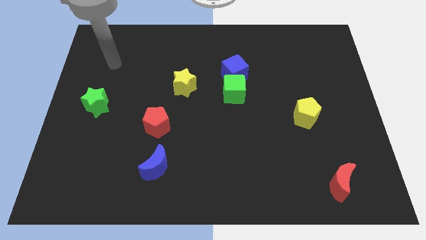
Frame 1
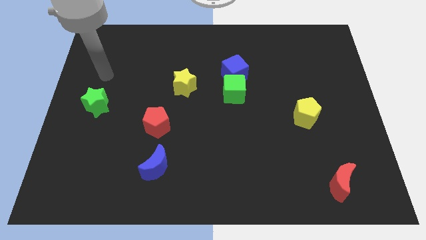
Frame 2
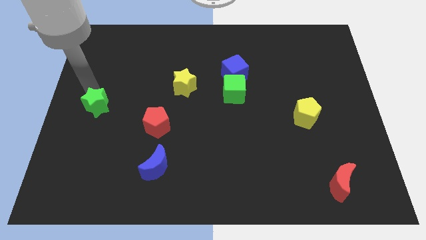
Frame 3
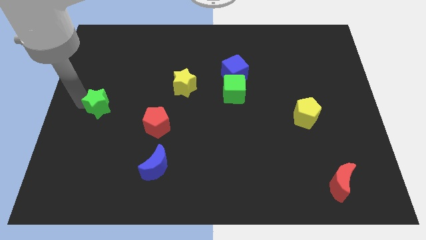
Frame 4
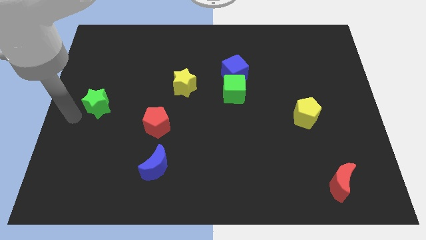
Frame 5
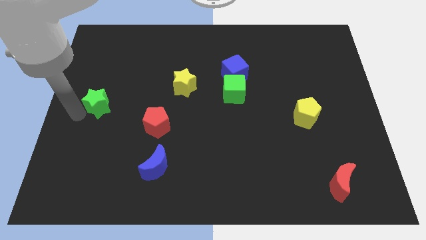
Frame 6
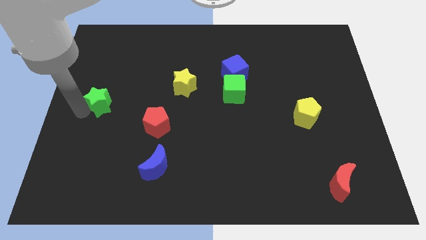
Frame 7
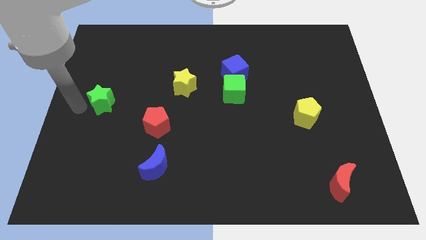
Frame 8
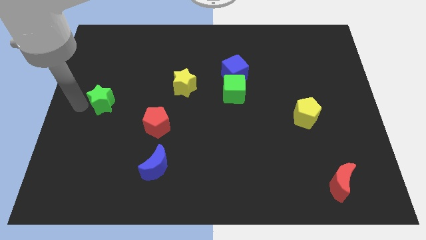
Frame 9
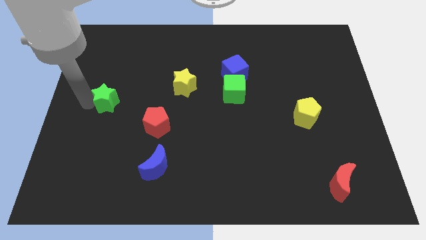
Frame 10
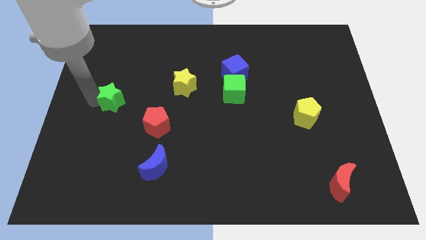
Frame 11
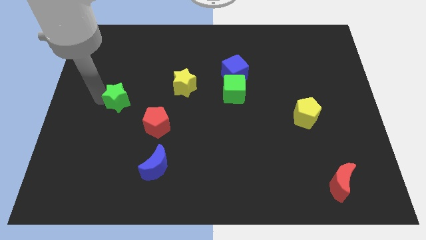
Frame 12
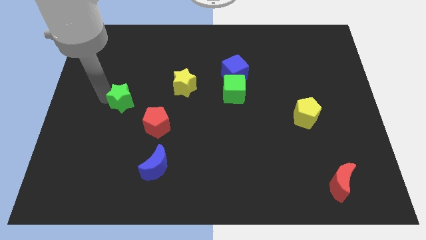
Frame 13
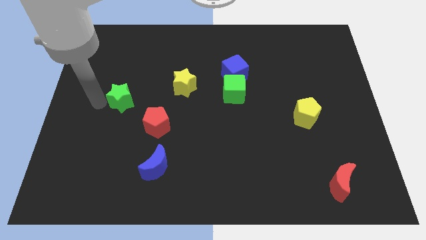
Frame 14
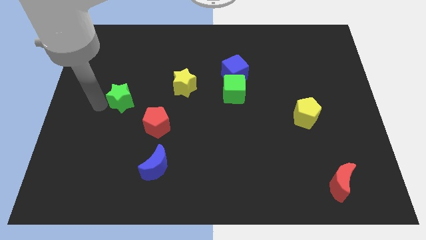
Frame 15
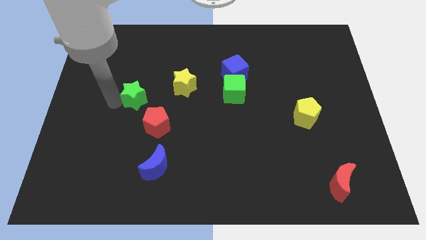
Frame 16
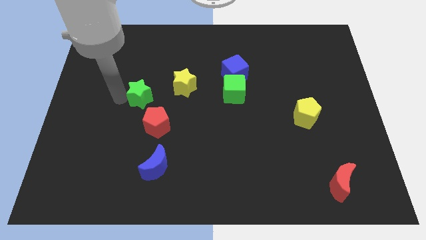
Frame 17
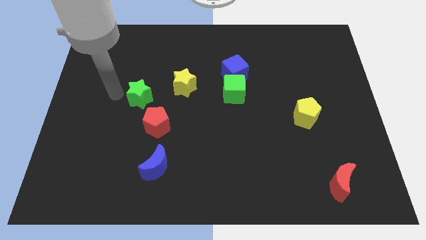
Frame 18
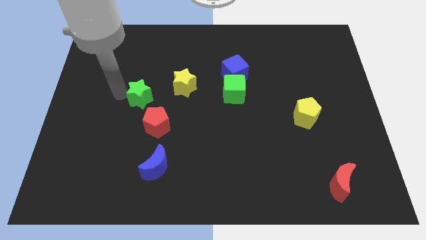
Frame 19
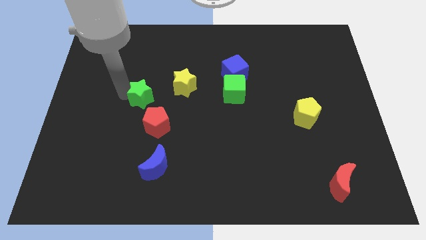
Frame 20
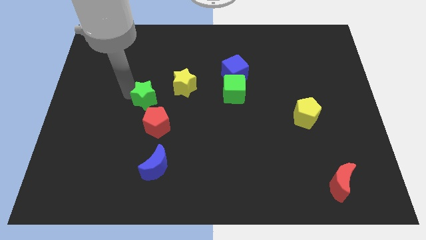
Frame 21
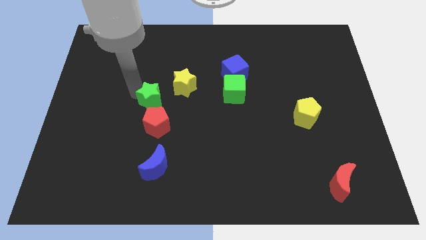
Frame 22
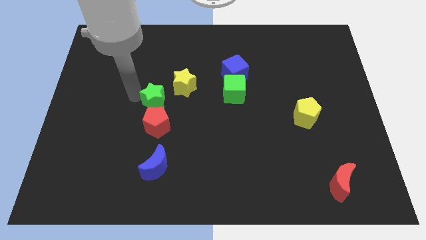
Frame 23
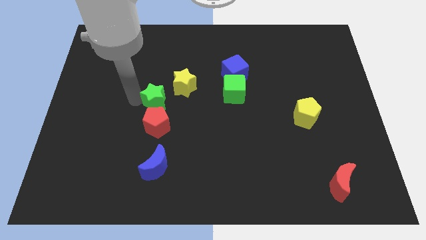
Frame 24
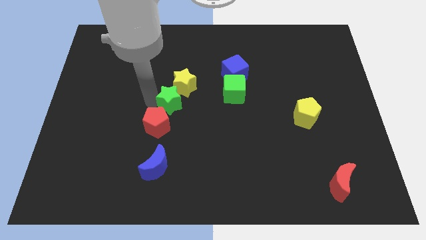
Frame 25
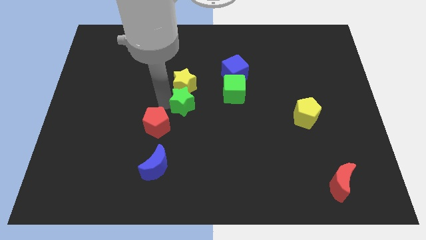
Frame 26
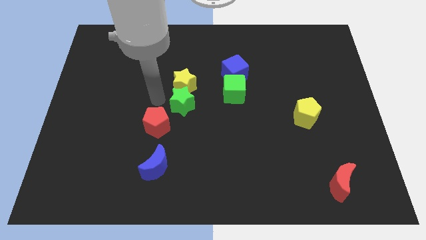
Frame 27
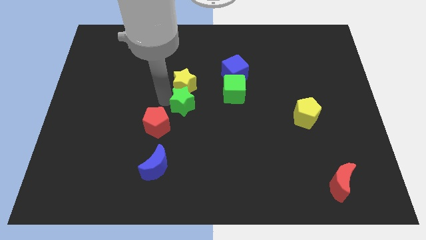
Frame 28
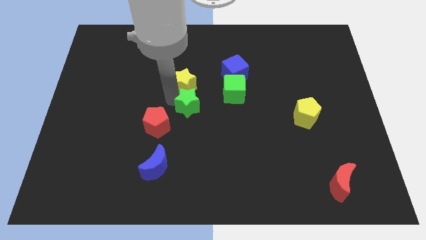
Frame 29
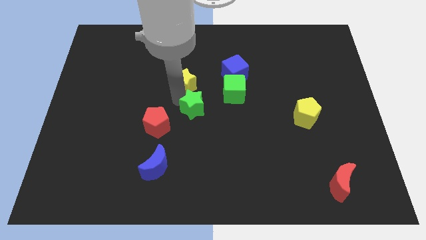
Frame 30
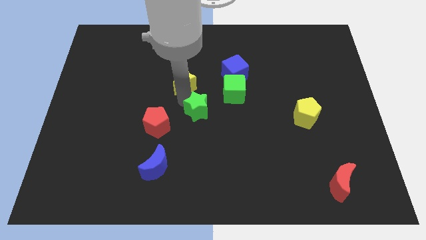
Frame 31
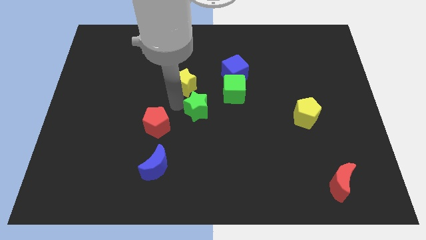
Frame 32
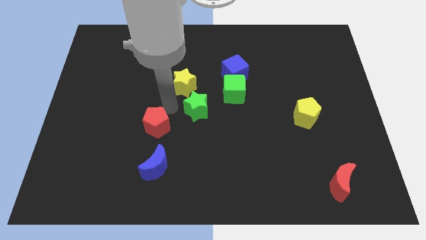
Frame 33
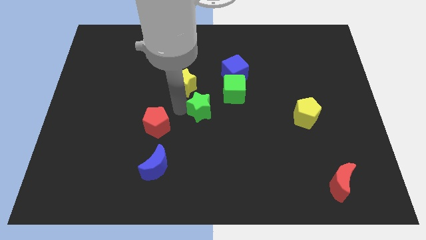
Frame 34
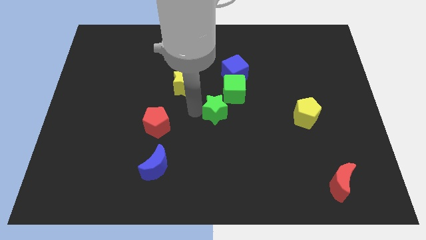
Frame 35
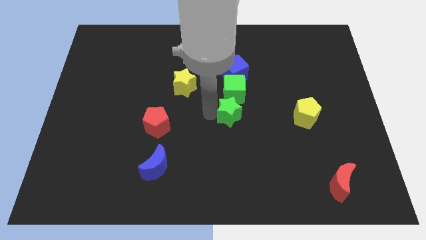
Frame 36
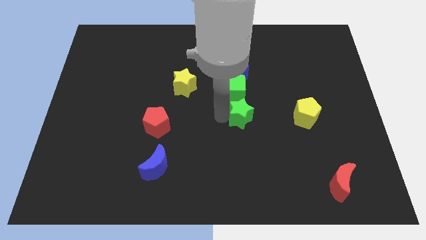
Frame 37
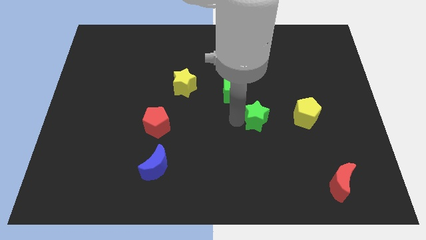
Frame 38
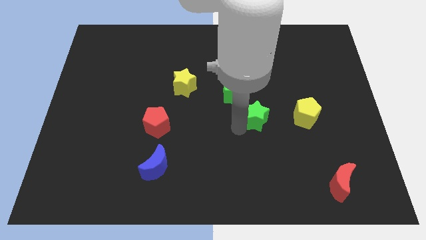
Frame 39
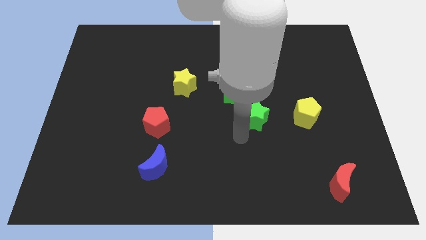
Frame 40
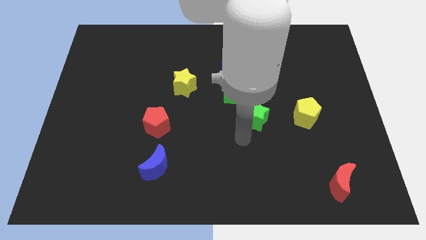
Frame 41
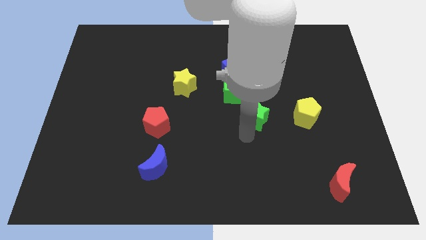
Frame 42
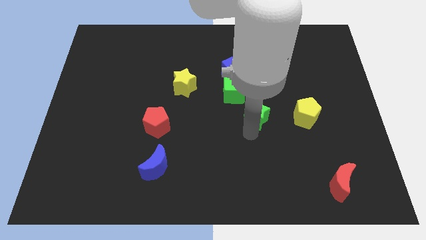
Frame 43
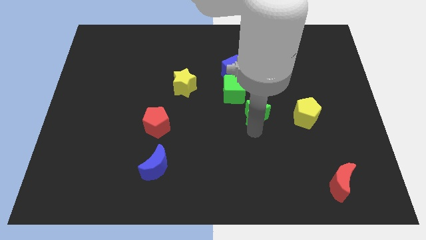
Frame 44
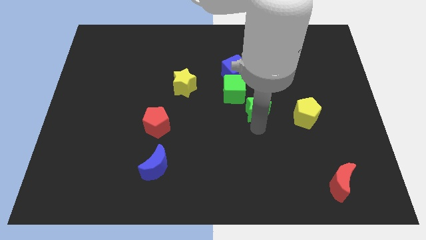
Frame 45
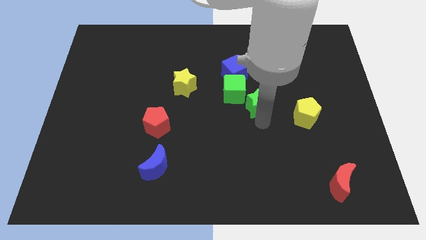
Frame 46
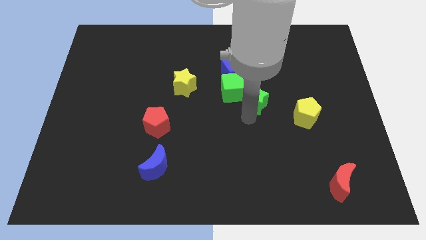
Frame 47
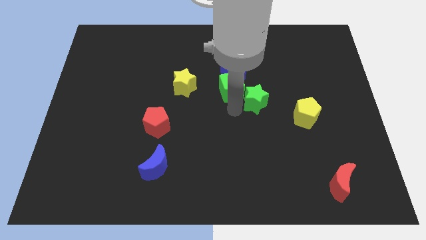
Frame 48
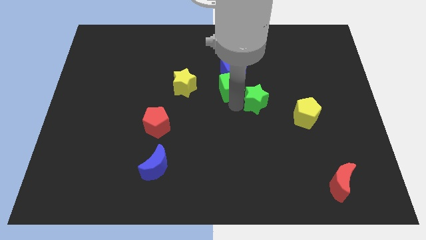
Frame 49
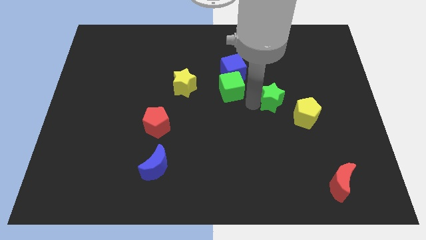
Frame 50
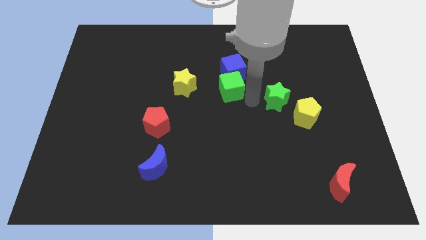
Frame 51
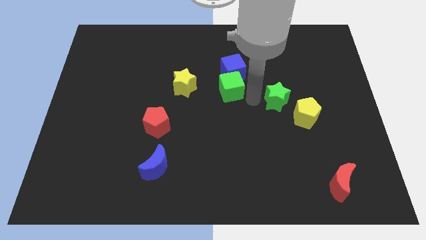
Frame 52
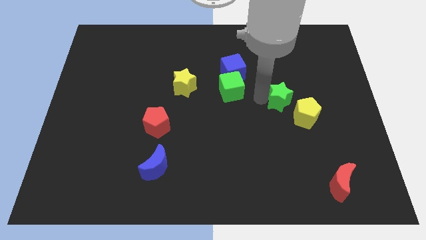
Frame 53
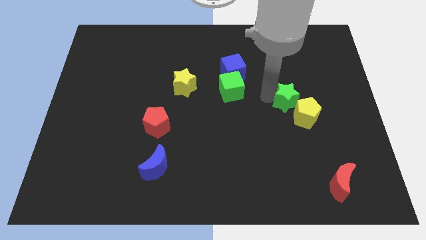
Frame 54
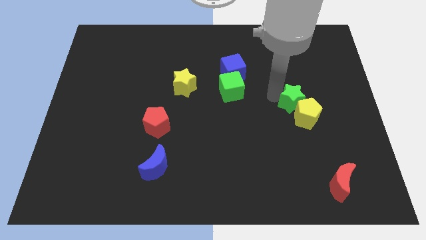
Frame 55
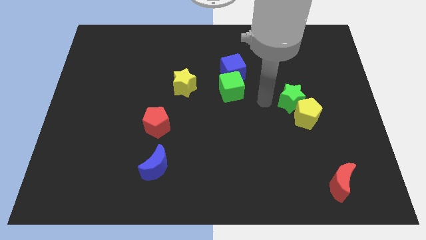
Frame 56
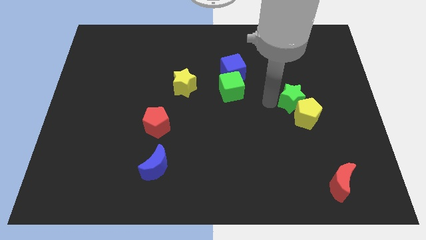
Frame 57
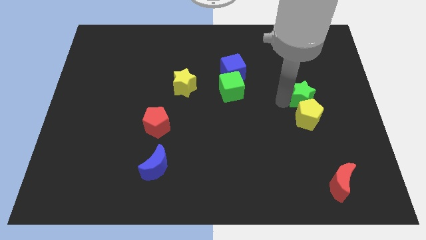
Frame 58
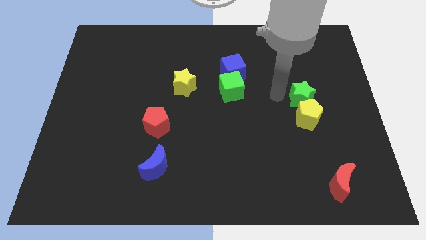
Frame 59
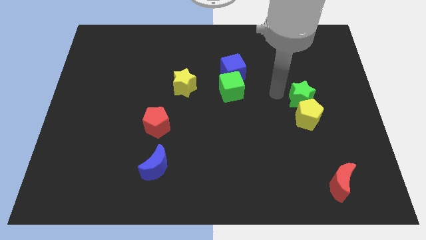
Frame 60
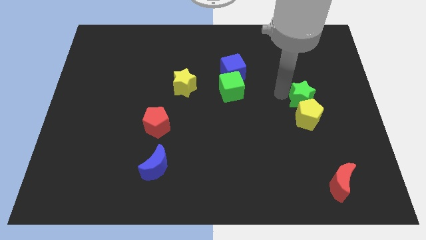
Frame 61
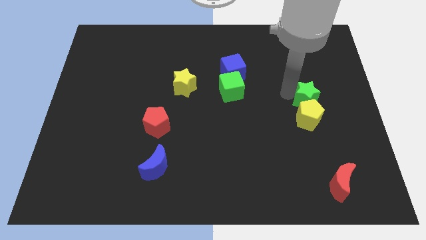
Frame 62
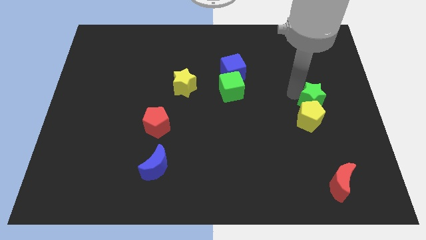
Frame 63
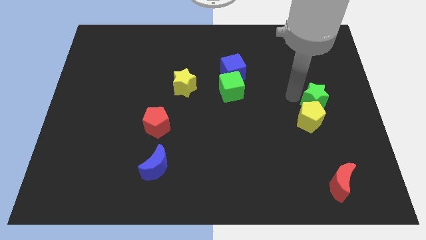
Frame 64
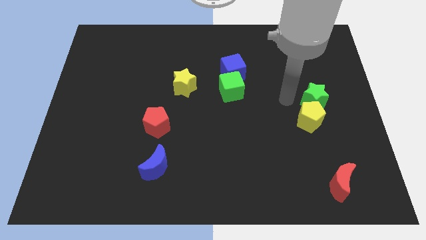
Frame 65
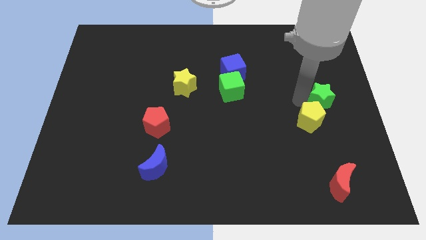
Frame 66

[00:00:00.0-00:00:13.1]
move the green star to the right side

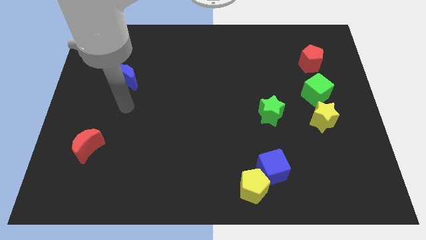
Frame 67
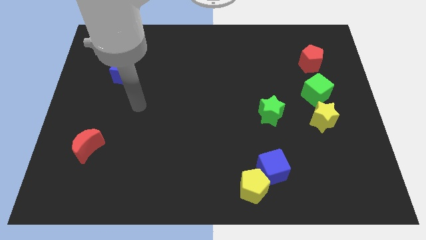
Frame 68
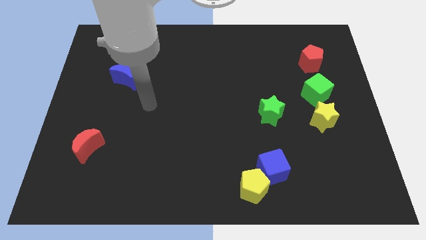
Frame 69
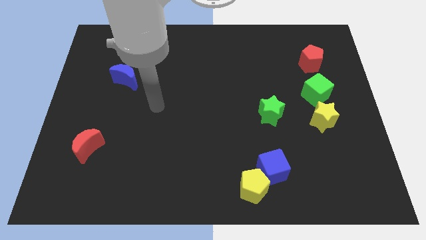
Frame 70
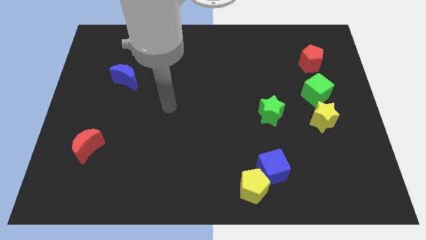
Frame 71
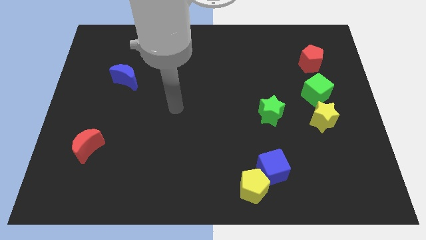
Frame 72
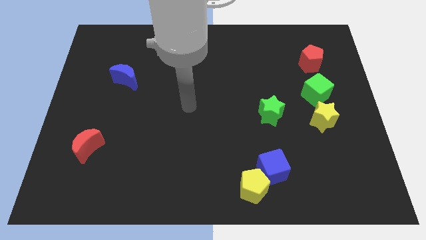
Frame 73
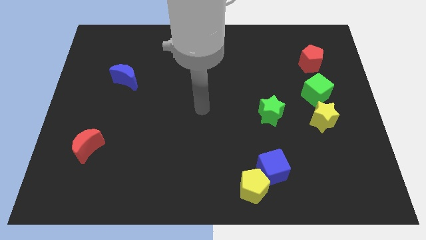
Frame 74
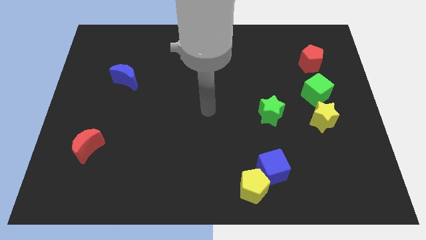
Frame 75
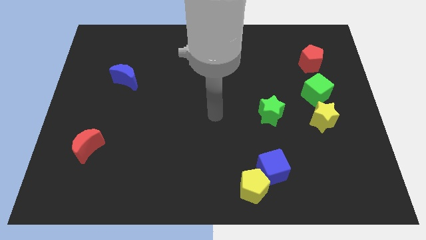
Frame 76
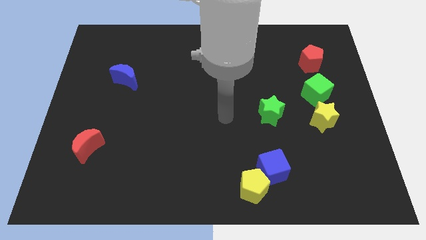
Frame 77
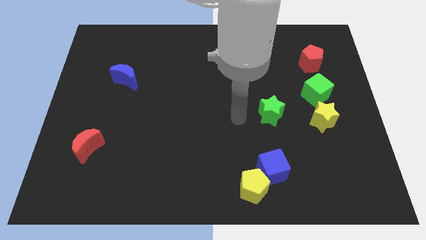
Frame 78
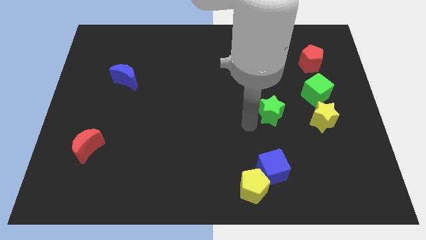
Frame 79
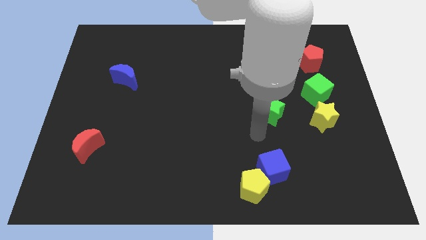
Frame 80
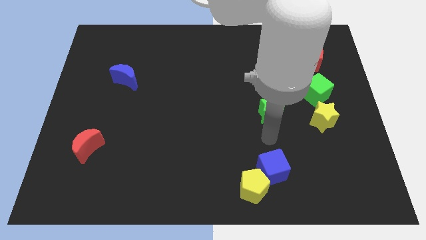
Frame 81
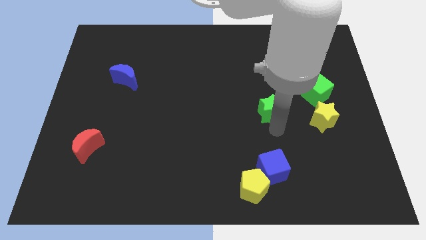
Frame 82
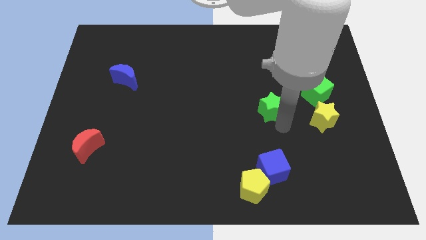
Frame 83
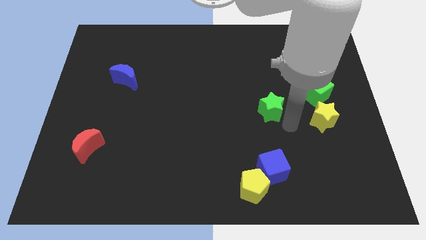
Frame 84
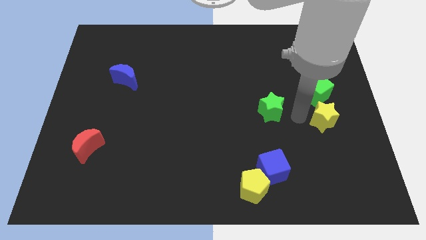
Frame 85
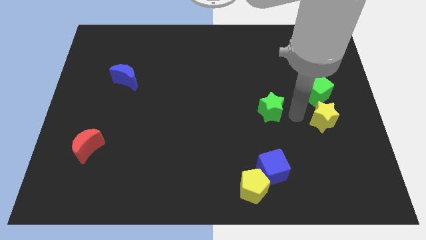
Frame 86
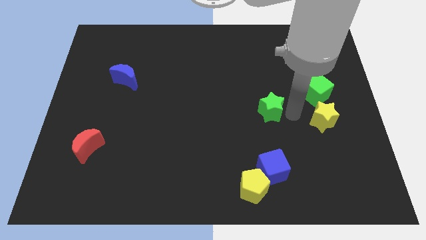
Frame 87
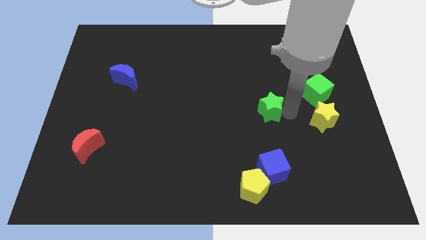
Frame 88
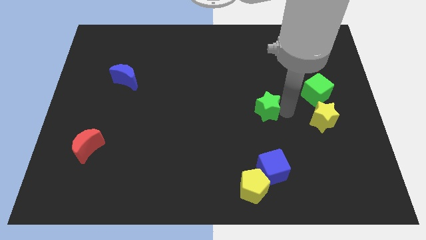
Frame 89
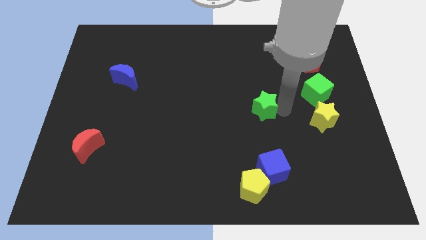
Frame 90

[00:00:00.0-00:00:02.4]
put the green star to the center of the board
